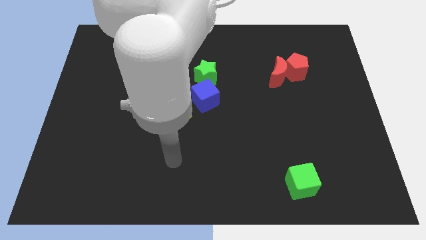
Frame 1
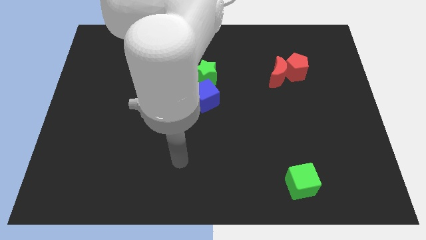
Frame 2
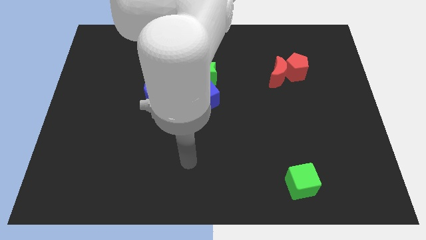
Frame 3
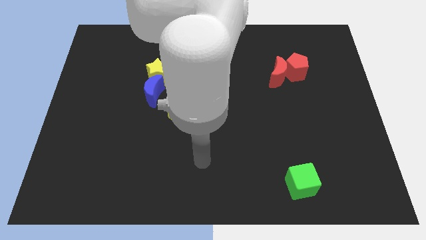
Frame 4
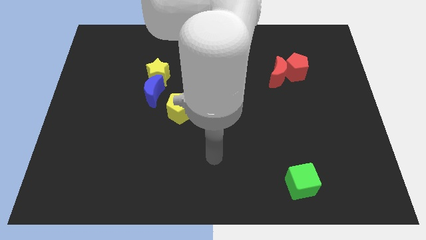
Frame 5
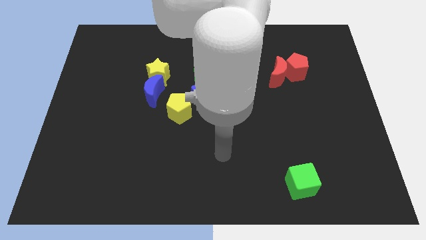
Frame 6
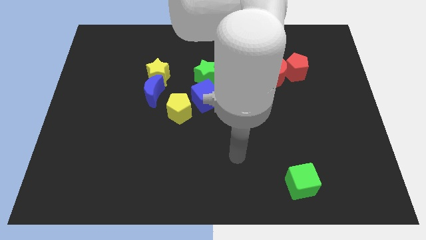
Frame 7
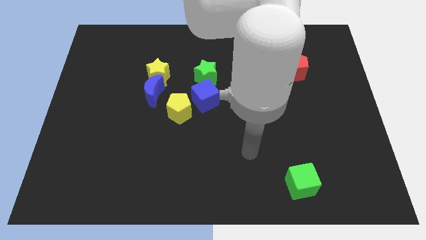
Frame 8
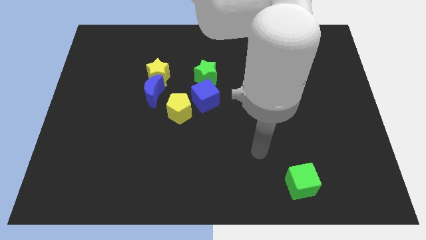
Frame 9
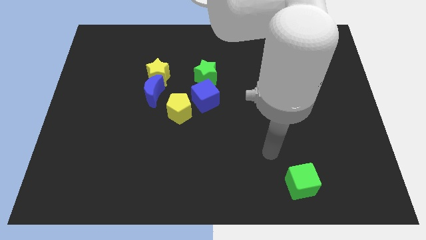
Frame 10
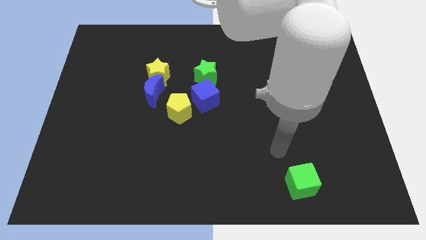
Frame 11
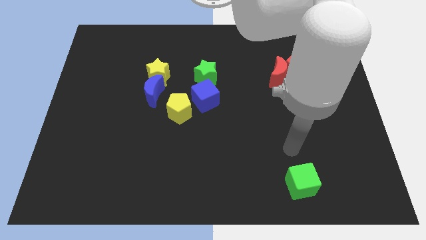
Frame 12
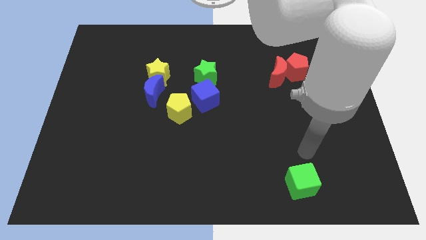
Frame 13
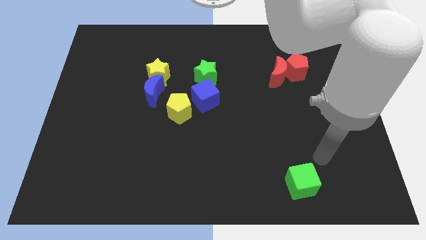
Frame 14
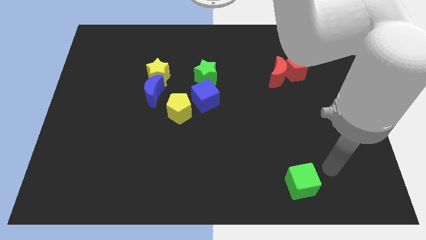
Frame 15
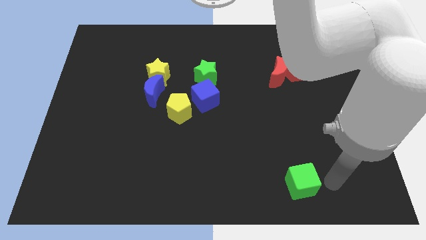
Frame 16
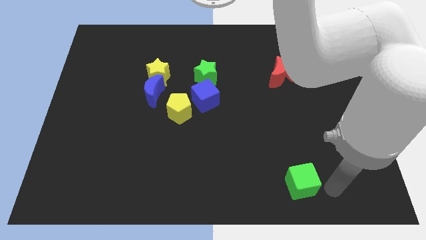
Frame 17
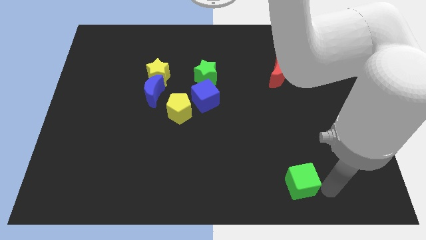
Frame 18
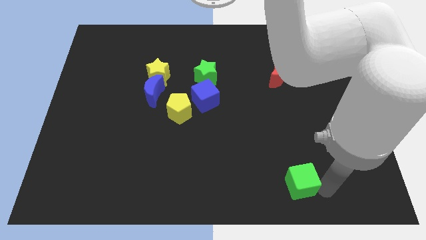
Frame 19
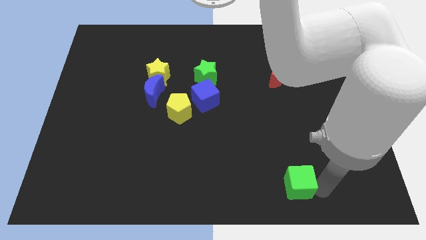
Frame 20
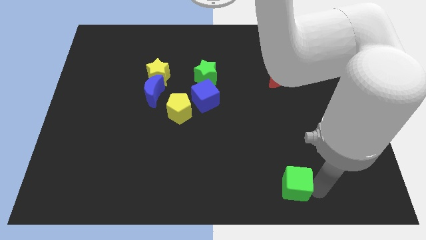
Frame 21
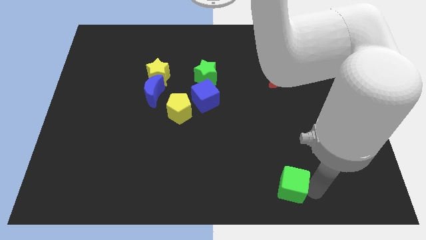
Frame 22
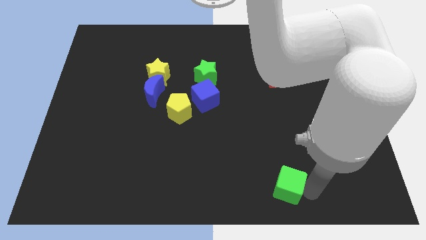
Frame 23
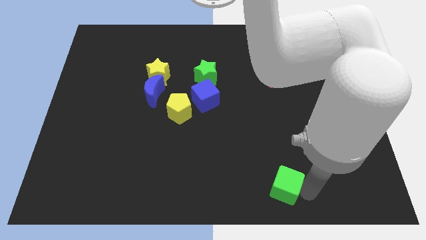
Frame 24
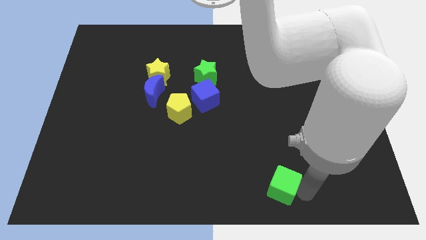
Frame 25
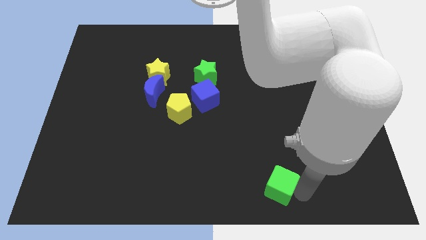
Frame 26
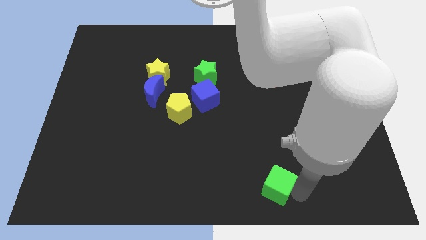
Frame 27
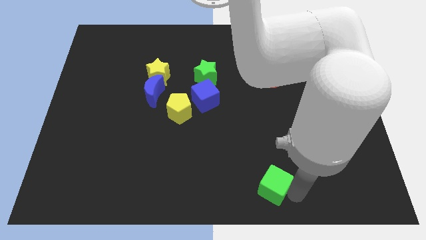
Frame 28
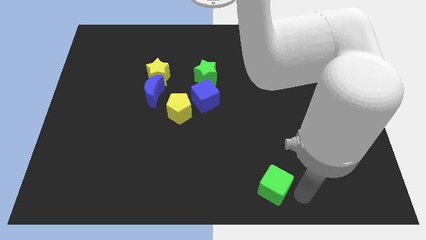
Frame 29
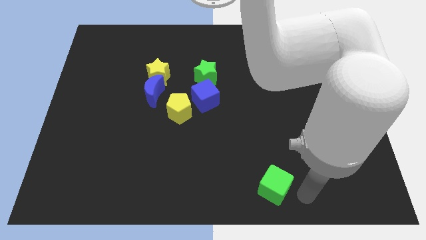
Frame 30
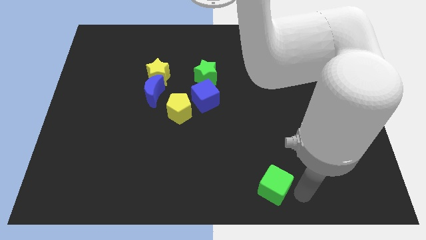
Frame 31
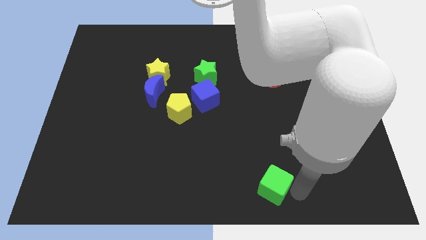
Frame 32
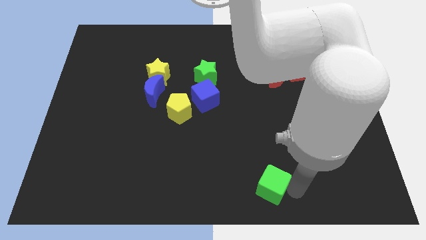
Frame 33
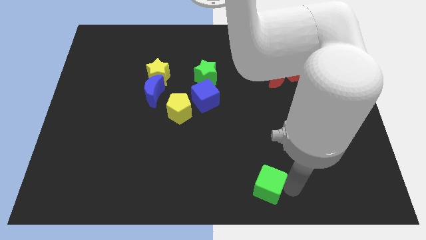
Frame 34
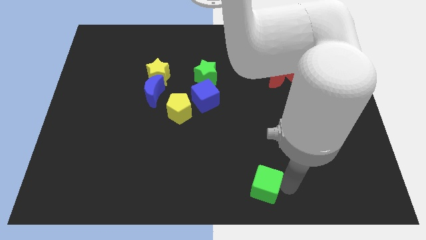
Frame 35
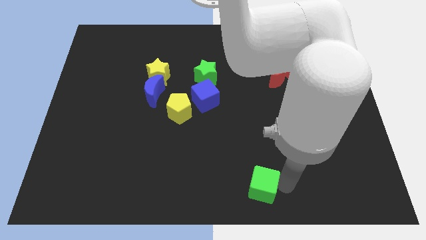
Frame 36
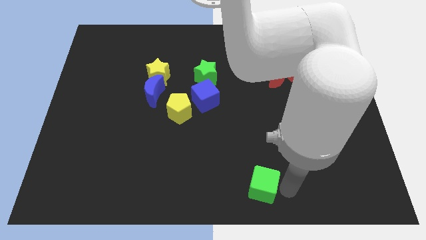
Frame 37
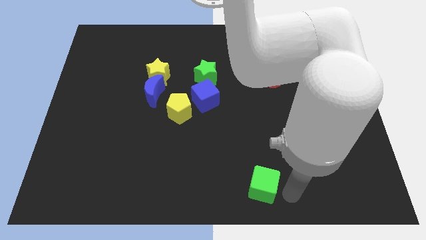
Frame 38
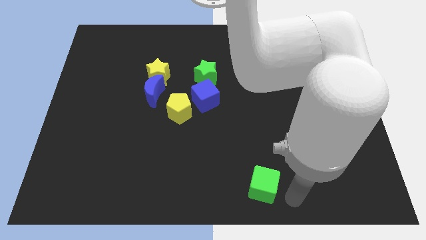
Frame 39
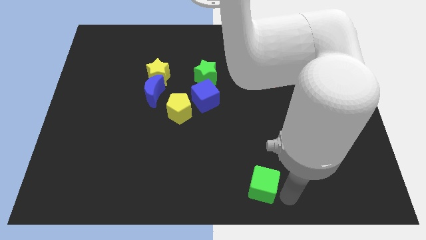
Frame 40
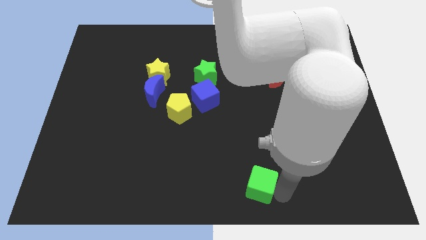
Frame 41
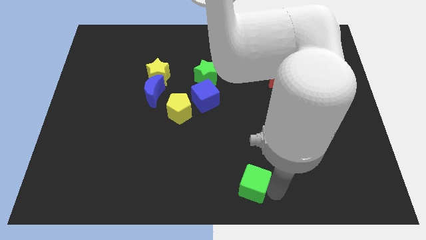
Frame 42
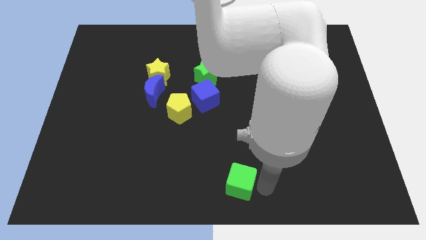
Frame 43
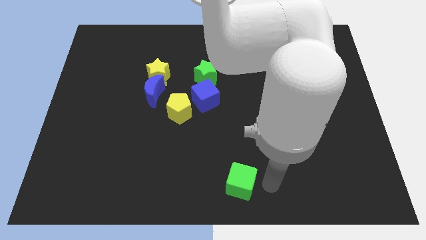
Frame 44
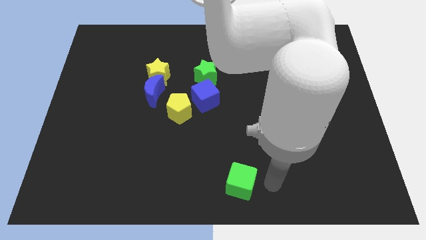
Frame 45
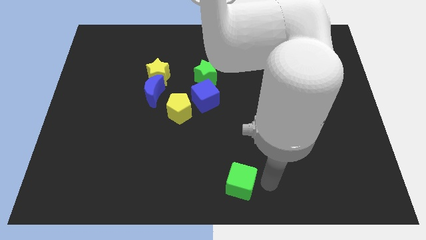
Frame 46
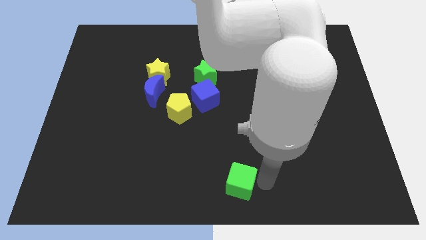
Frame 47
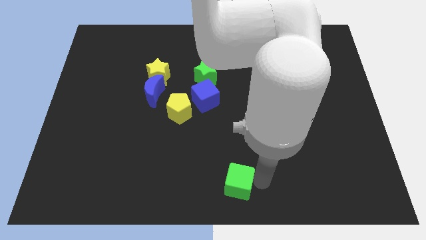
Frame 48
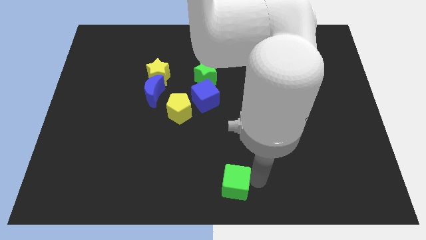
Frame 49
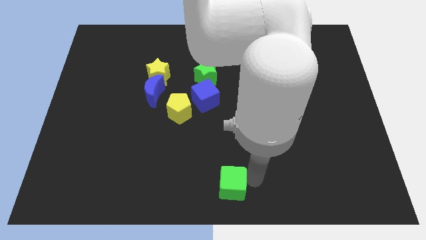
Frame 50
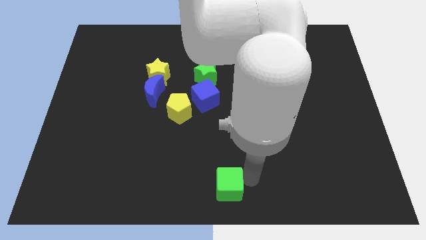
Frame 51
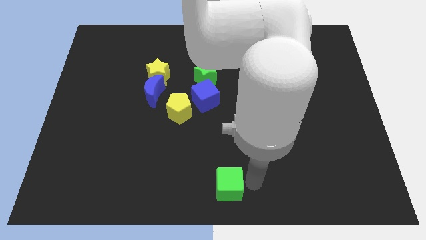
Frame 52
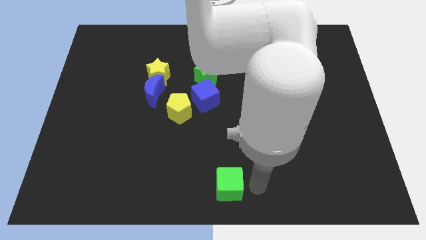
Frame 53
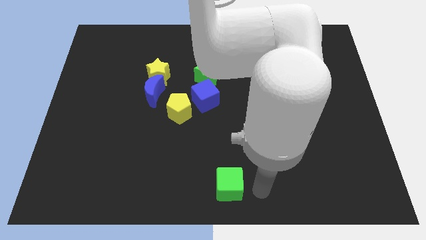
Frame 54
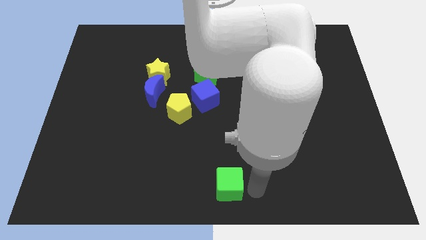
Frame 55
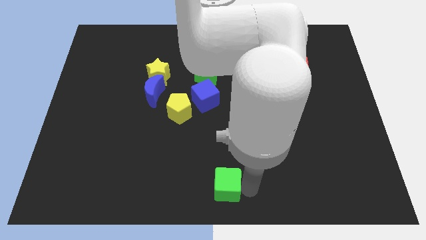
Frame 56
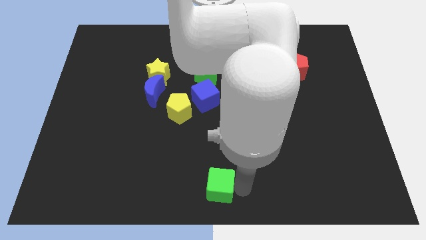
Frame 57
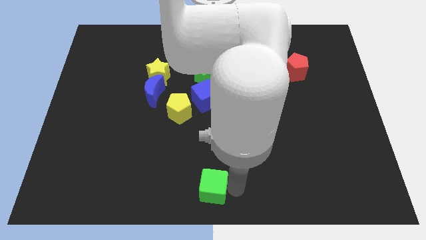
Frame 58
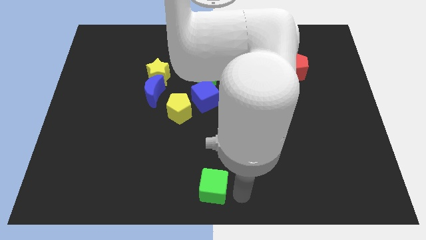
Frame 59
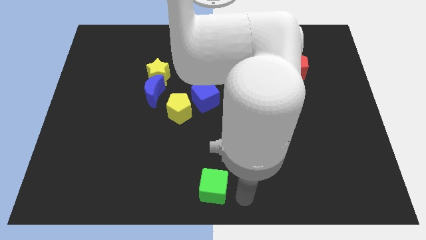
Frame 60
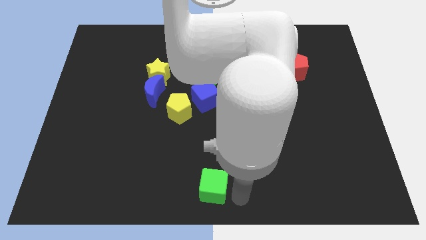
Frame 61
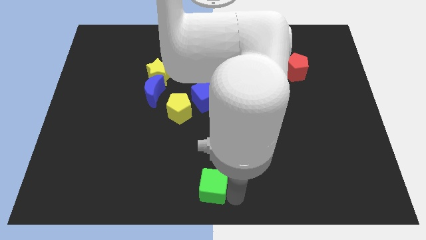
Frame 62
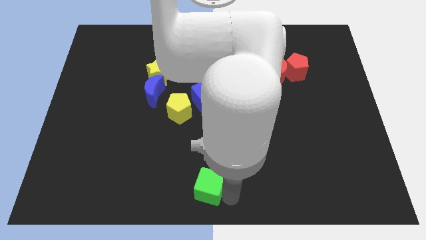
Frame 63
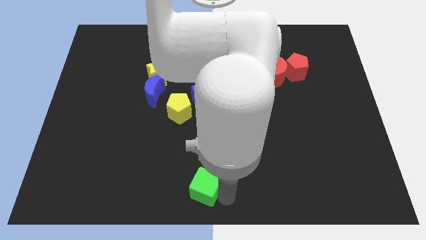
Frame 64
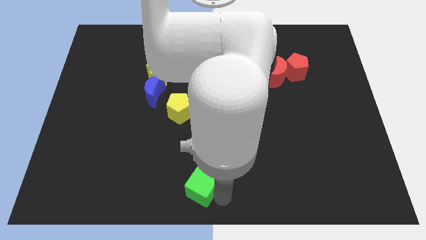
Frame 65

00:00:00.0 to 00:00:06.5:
move the green cube to the left

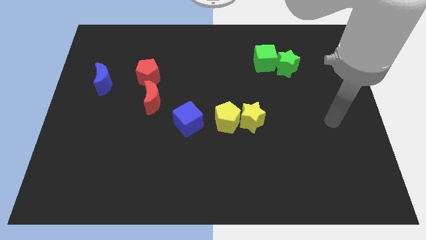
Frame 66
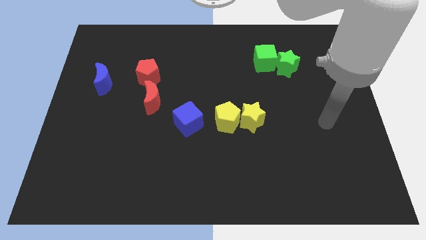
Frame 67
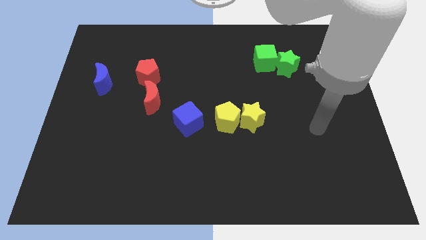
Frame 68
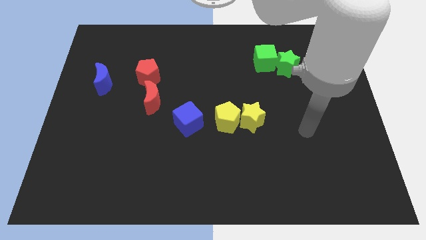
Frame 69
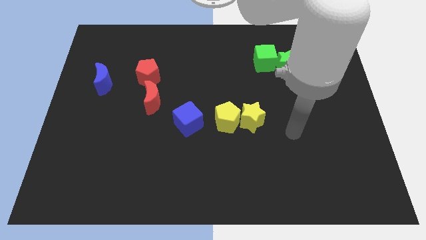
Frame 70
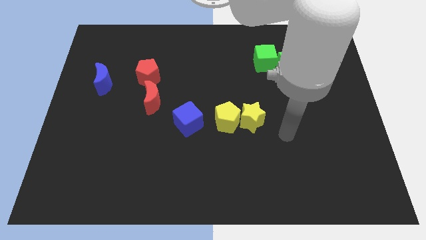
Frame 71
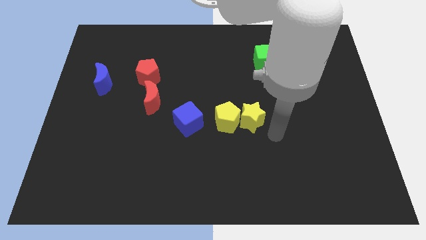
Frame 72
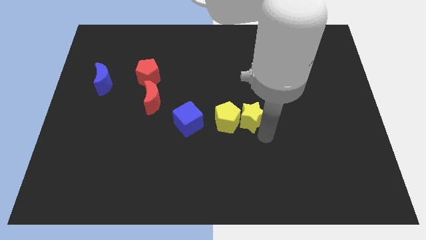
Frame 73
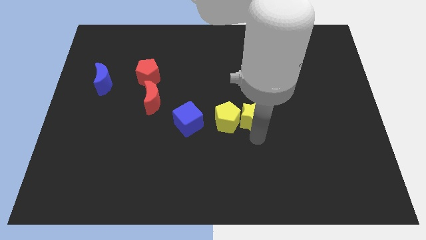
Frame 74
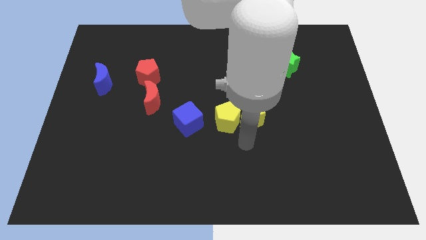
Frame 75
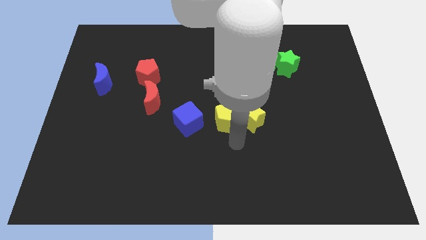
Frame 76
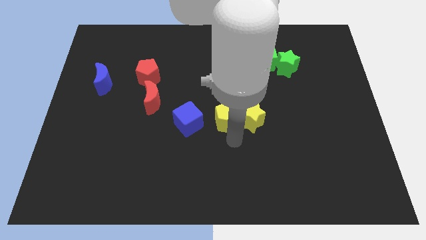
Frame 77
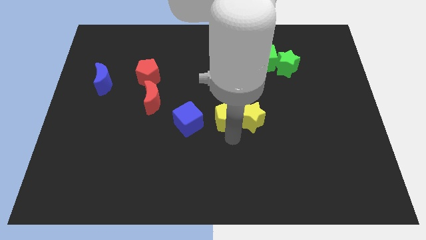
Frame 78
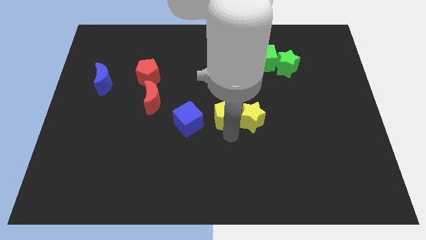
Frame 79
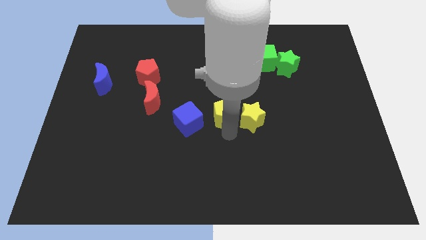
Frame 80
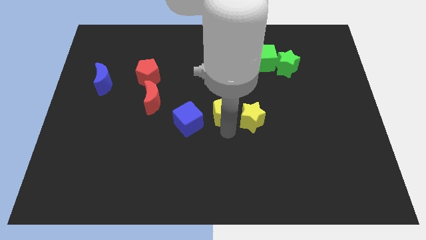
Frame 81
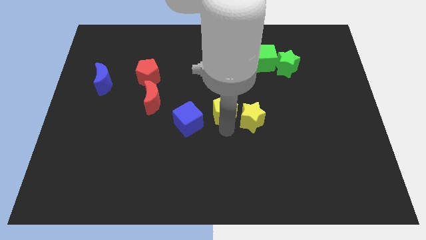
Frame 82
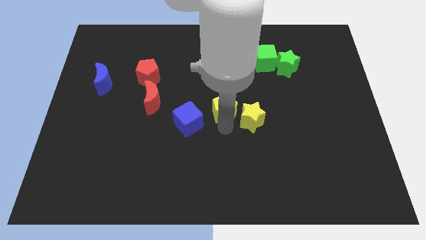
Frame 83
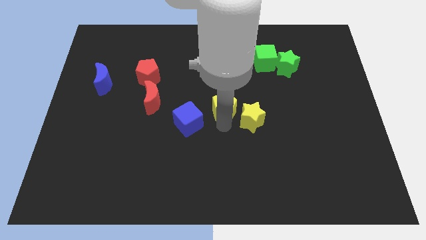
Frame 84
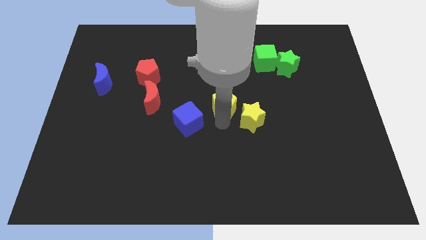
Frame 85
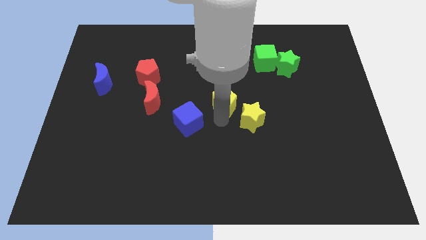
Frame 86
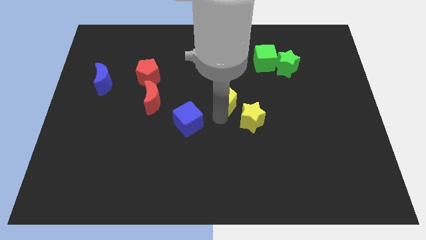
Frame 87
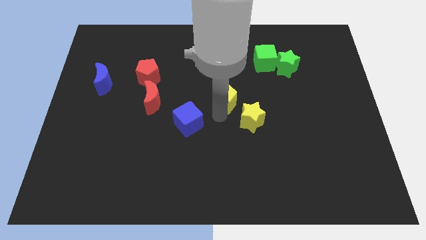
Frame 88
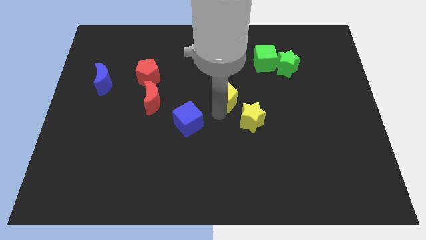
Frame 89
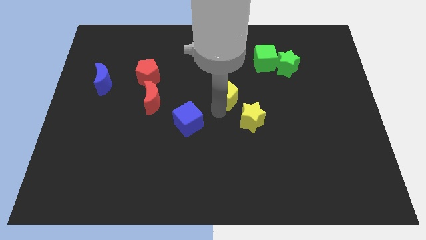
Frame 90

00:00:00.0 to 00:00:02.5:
move the yellow pentagon upwards a little bit
